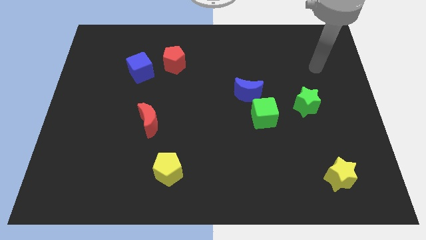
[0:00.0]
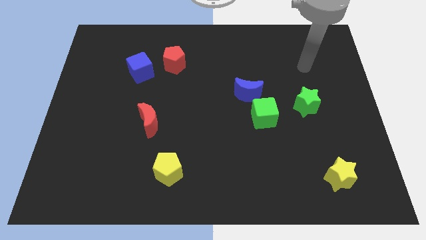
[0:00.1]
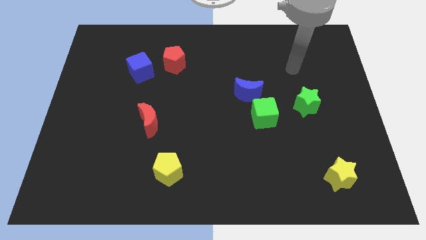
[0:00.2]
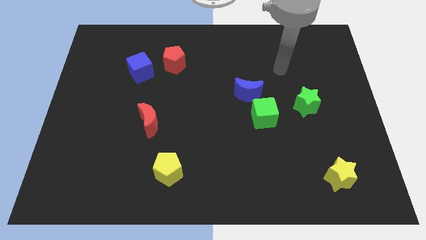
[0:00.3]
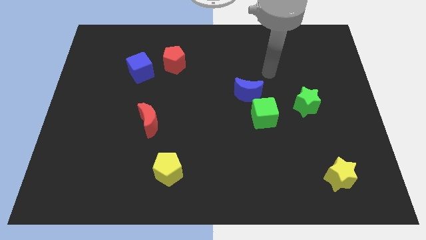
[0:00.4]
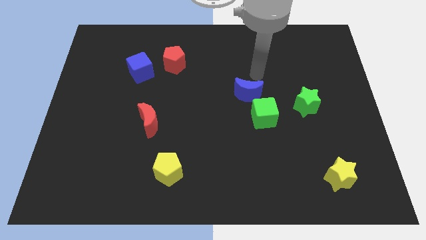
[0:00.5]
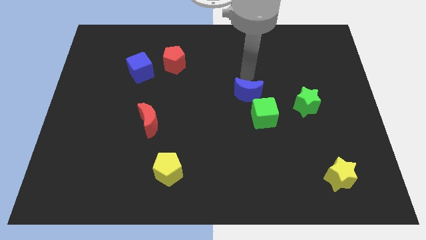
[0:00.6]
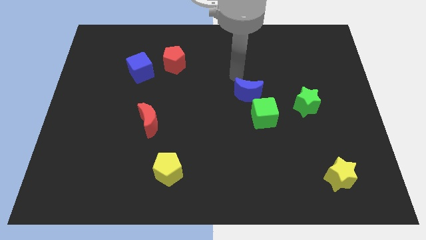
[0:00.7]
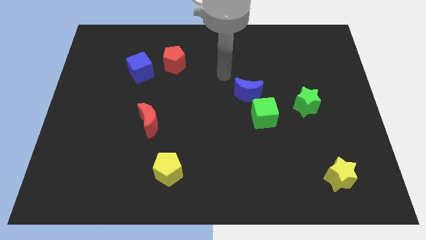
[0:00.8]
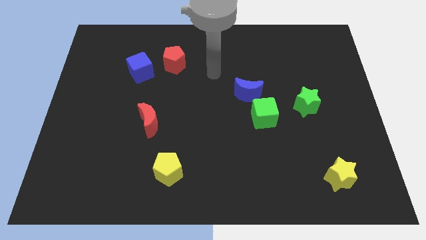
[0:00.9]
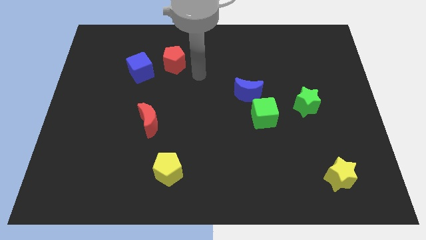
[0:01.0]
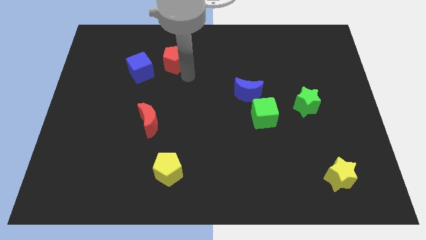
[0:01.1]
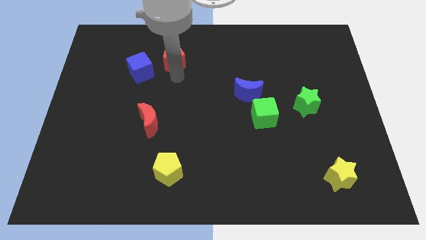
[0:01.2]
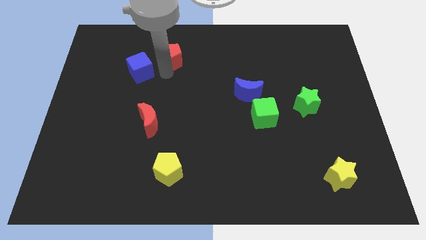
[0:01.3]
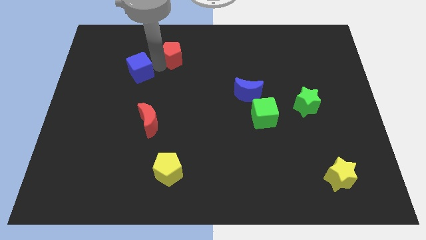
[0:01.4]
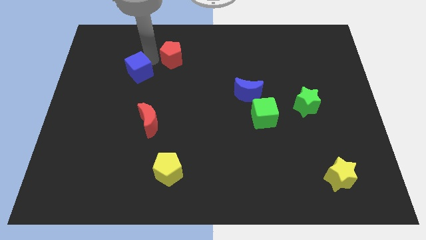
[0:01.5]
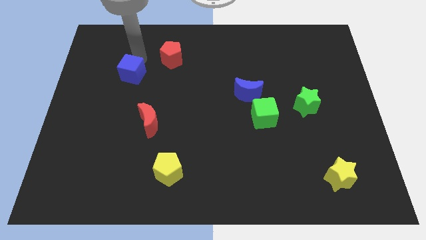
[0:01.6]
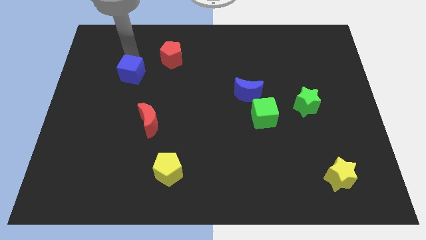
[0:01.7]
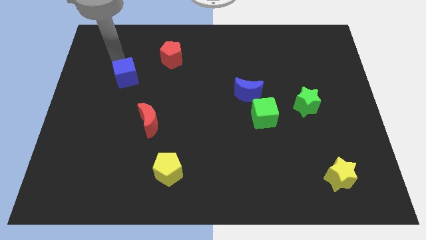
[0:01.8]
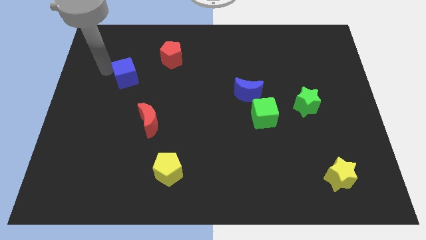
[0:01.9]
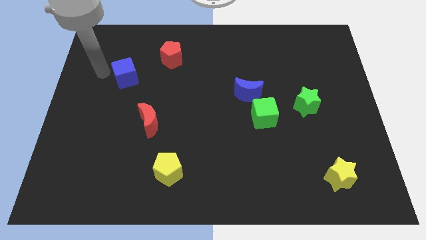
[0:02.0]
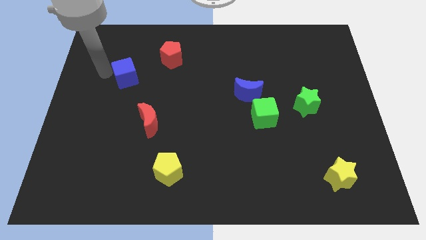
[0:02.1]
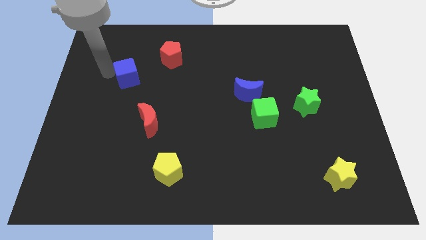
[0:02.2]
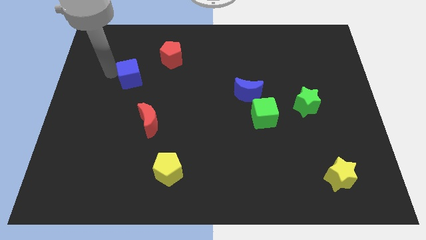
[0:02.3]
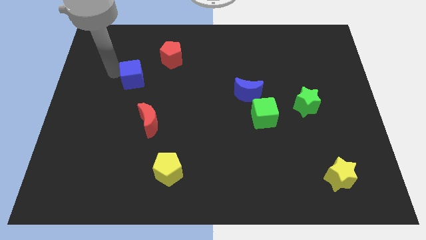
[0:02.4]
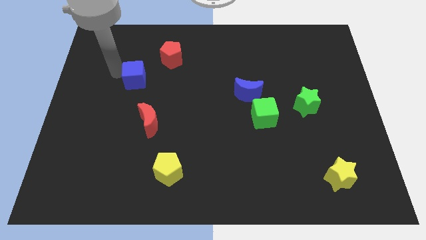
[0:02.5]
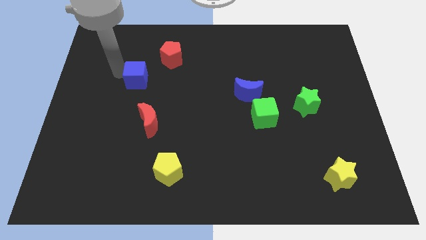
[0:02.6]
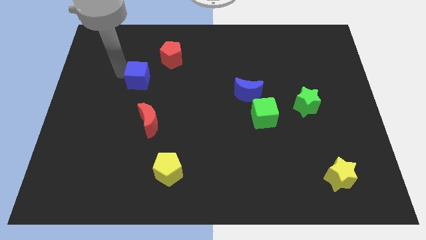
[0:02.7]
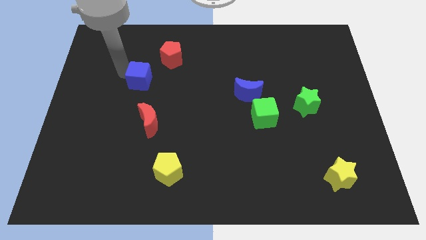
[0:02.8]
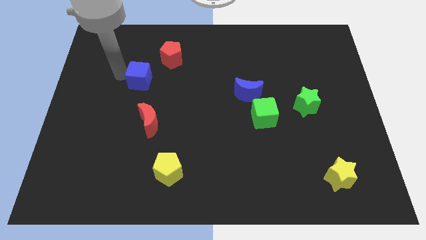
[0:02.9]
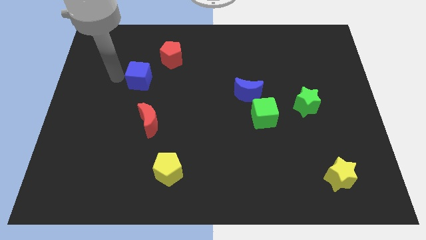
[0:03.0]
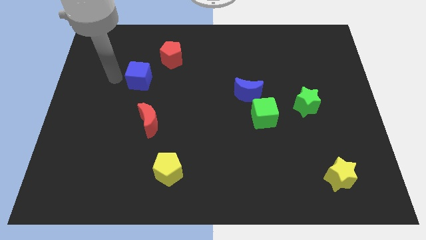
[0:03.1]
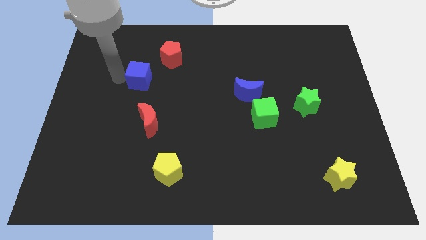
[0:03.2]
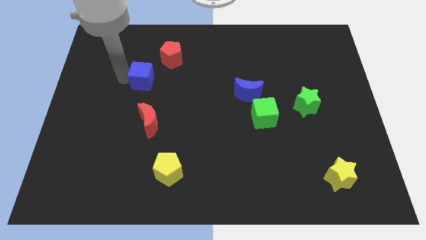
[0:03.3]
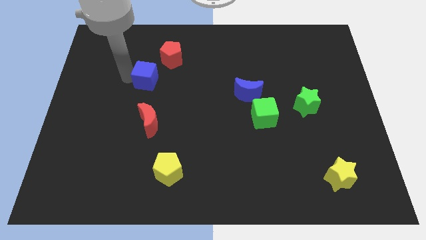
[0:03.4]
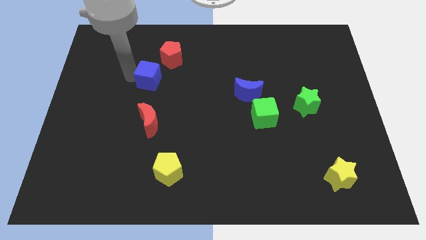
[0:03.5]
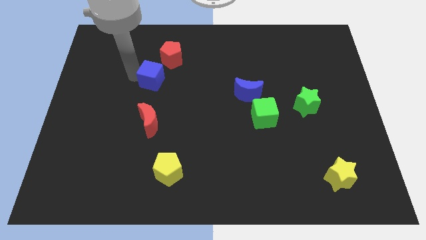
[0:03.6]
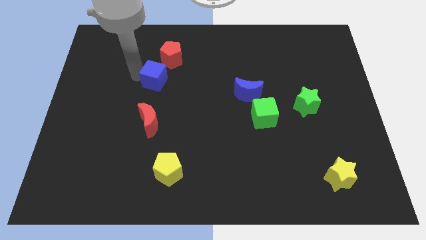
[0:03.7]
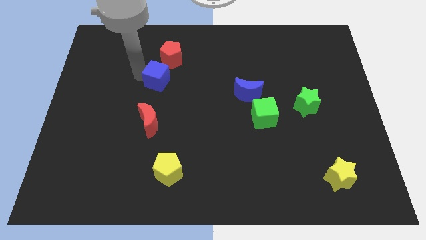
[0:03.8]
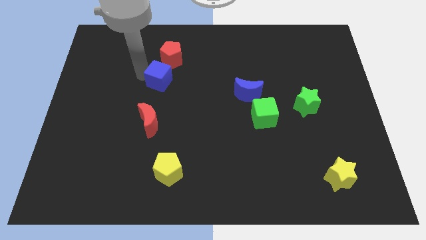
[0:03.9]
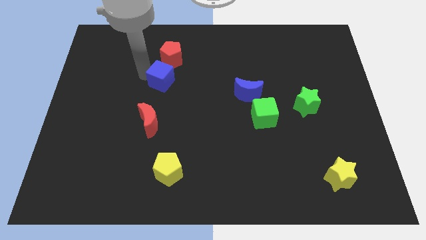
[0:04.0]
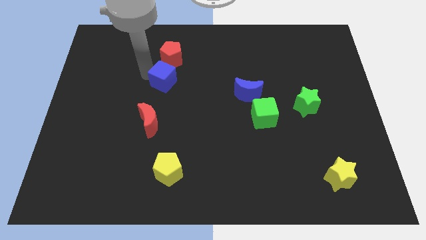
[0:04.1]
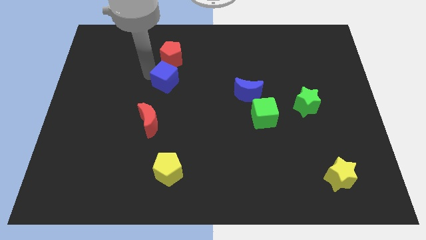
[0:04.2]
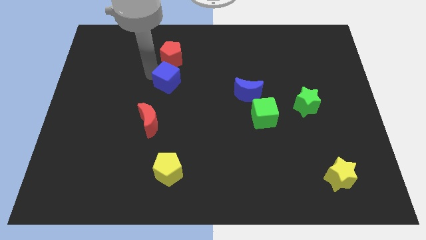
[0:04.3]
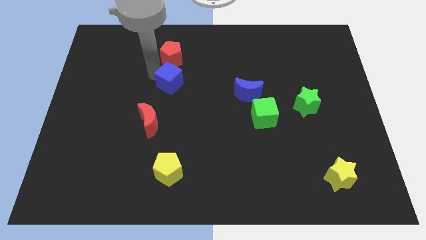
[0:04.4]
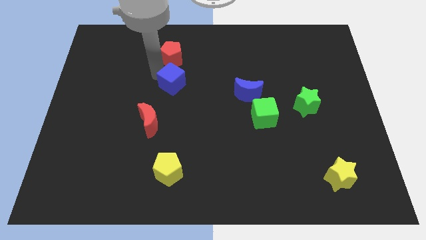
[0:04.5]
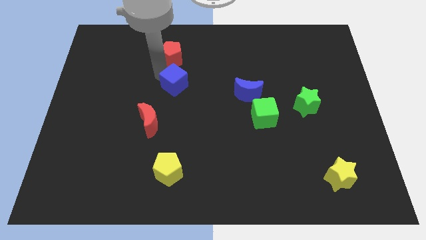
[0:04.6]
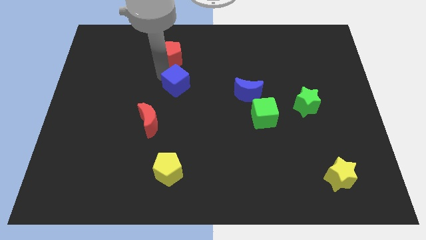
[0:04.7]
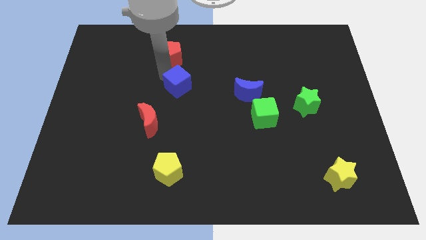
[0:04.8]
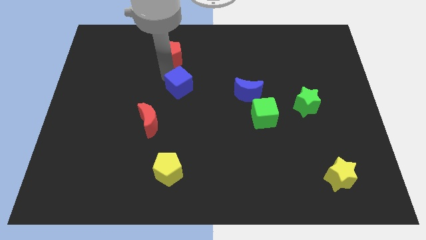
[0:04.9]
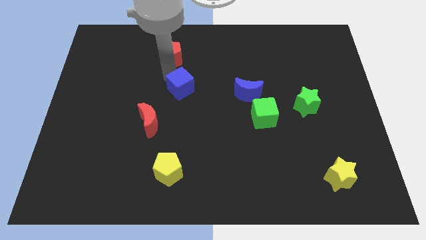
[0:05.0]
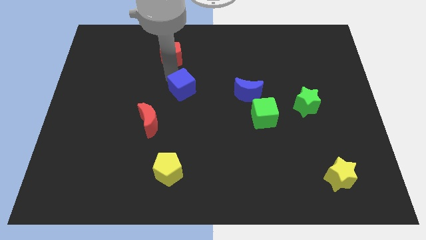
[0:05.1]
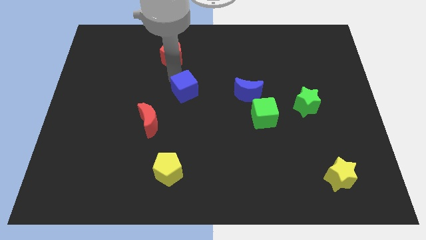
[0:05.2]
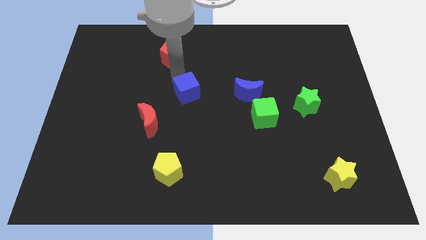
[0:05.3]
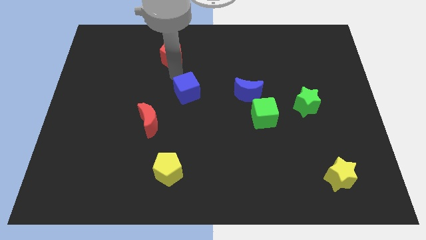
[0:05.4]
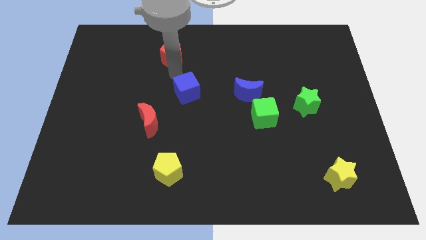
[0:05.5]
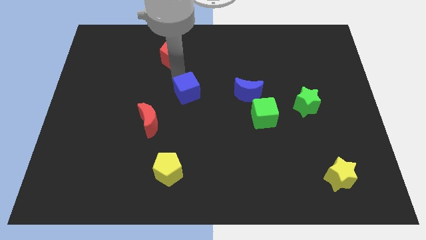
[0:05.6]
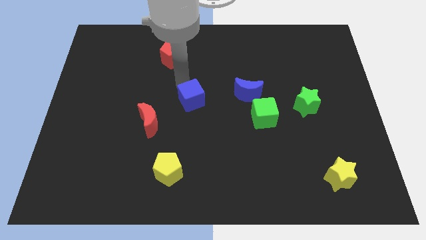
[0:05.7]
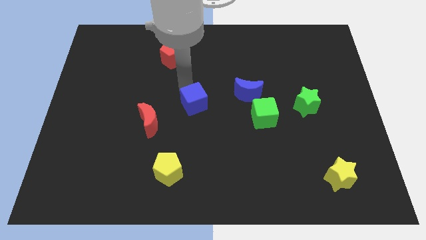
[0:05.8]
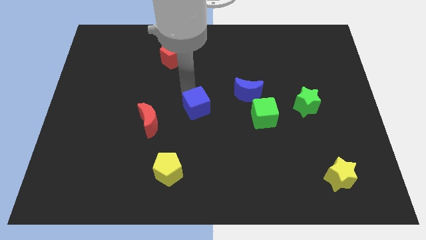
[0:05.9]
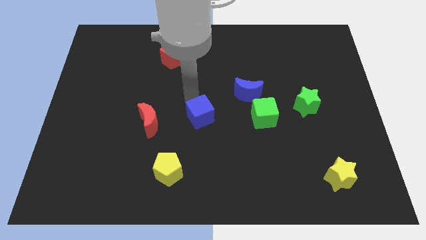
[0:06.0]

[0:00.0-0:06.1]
slide the blue cube down and then to the right

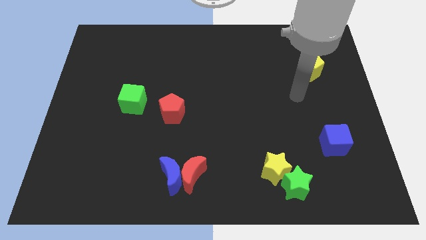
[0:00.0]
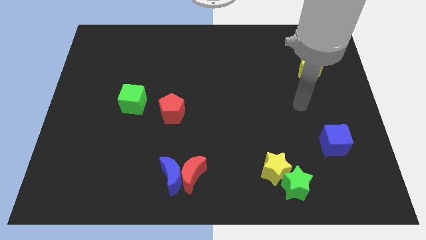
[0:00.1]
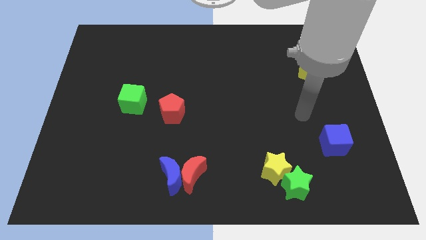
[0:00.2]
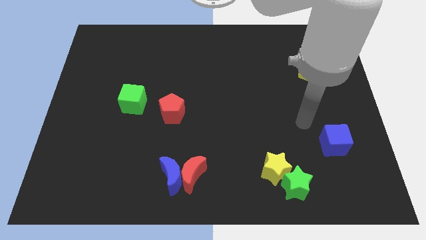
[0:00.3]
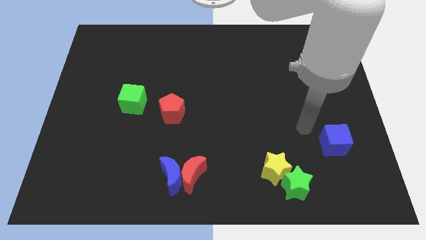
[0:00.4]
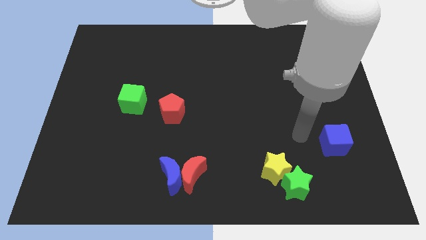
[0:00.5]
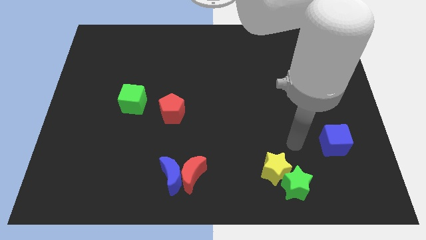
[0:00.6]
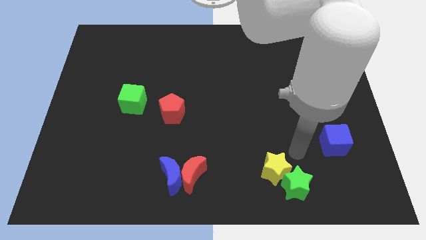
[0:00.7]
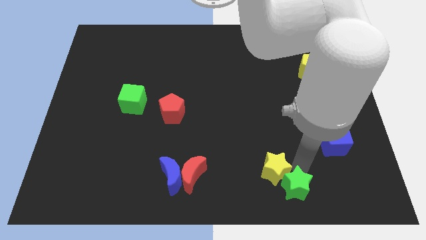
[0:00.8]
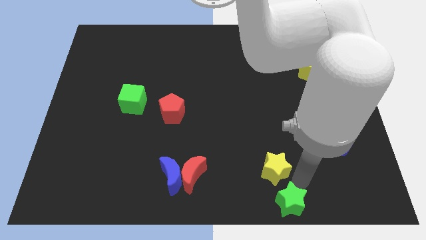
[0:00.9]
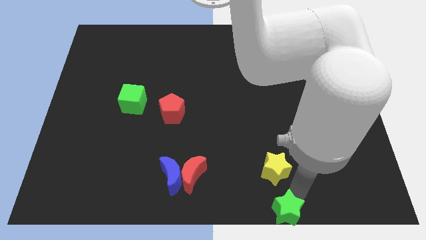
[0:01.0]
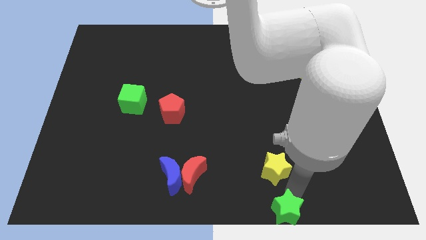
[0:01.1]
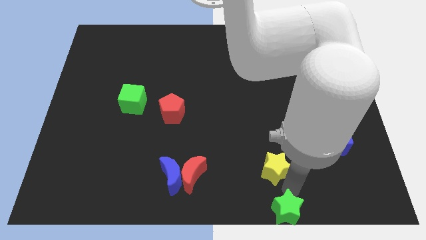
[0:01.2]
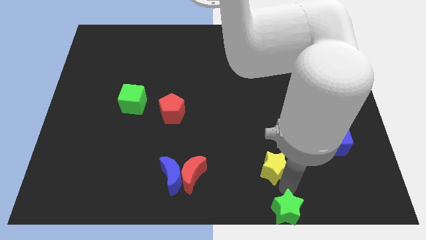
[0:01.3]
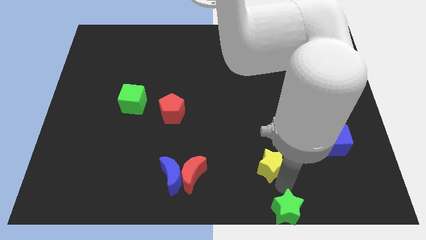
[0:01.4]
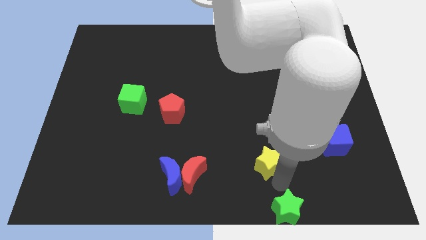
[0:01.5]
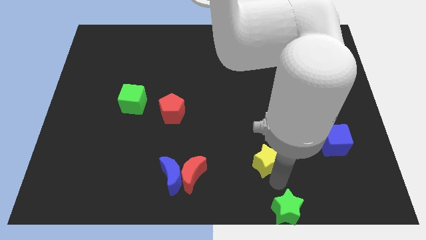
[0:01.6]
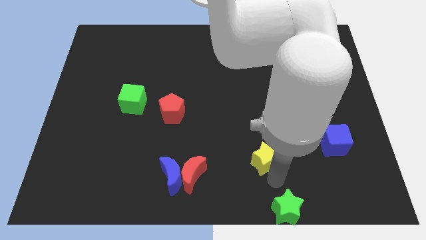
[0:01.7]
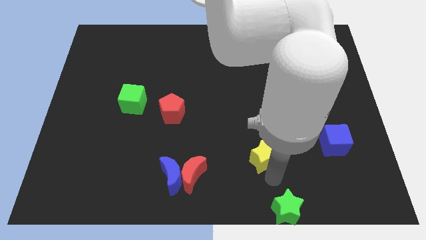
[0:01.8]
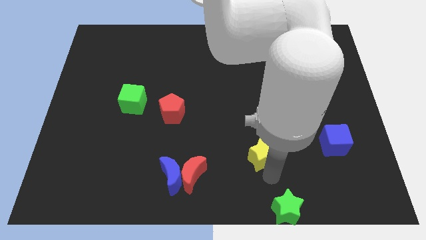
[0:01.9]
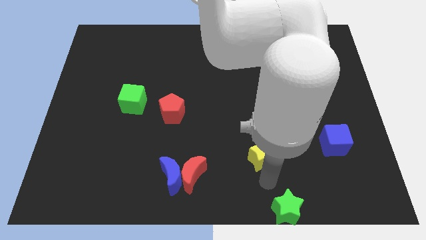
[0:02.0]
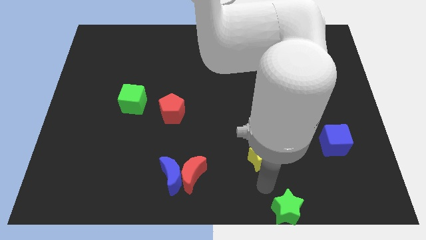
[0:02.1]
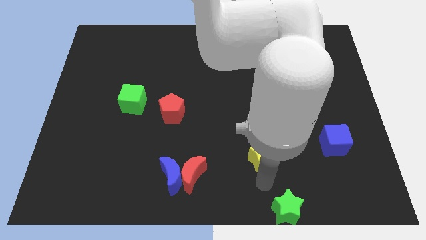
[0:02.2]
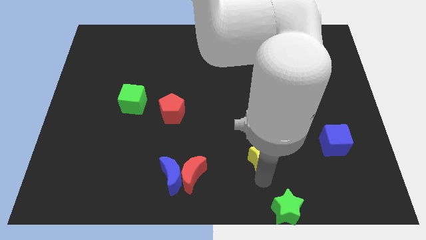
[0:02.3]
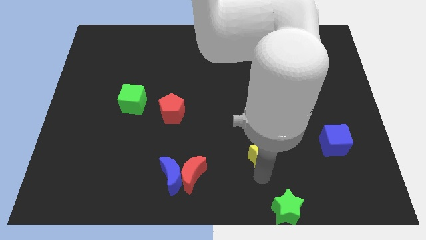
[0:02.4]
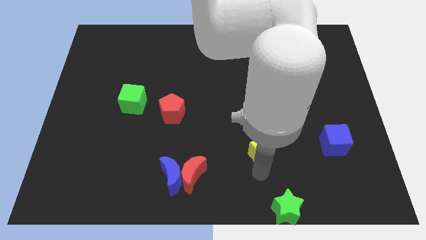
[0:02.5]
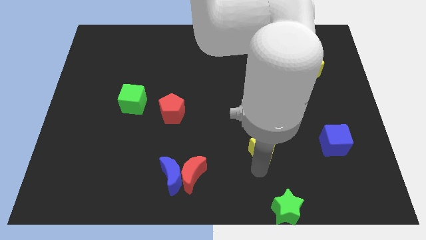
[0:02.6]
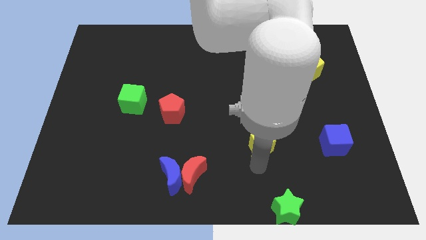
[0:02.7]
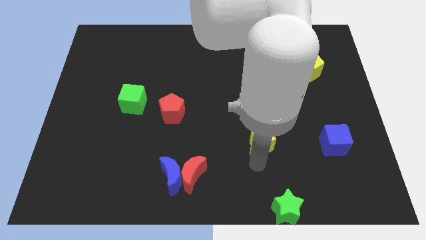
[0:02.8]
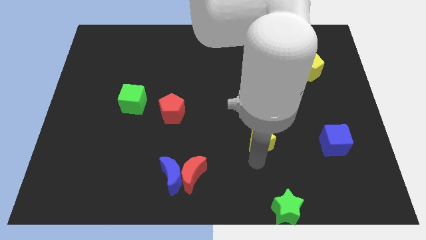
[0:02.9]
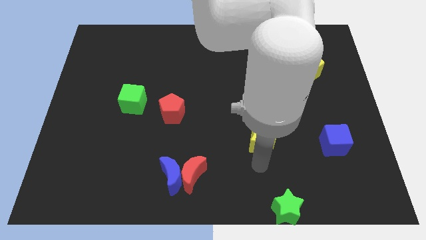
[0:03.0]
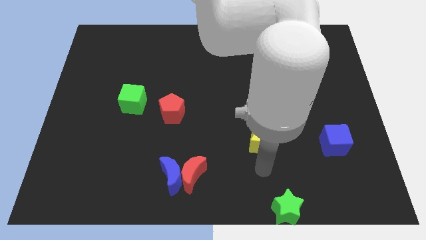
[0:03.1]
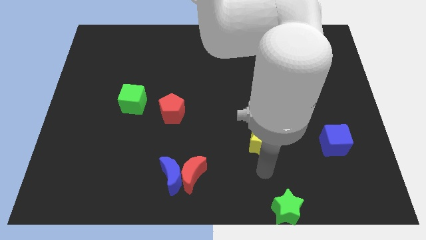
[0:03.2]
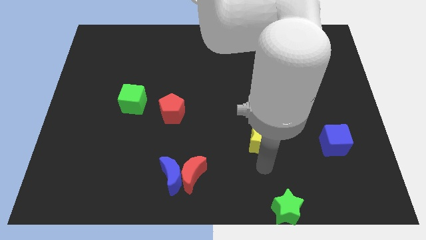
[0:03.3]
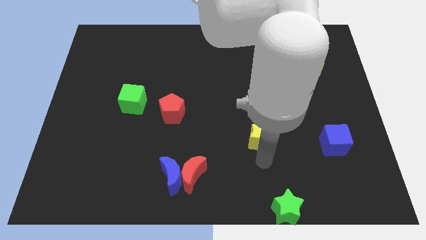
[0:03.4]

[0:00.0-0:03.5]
slightly slide the yellow star upwards
